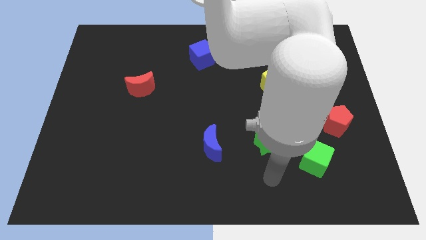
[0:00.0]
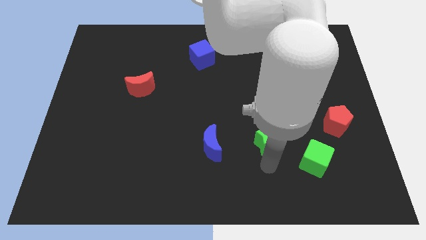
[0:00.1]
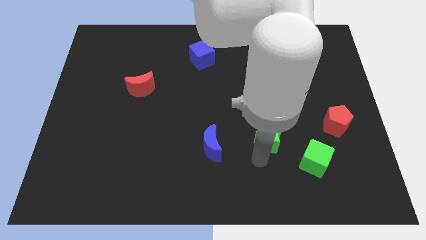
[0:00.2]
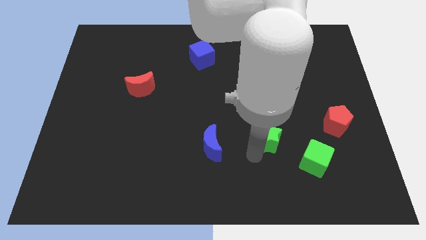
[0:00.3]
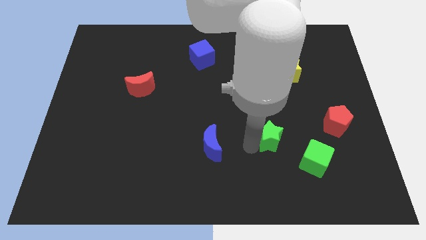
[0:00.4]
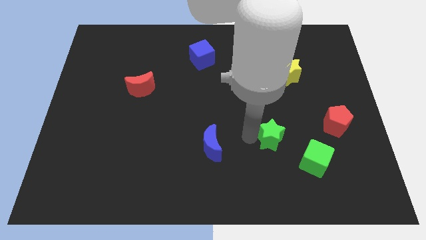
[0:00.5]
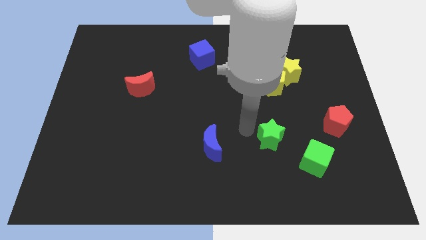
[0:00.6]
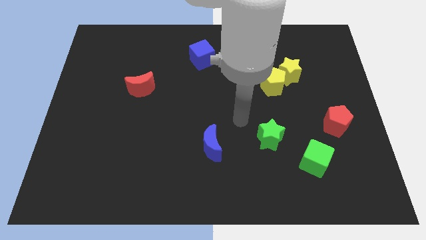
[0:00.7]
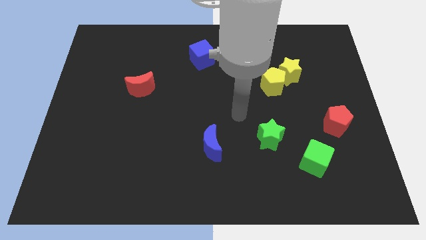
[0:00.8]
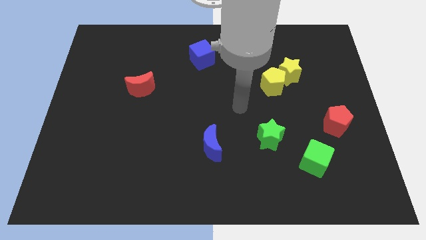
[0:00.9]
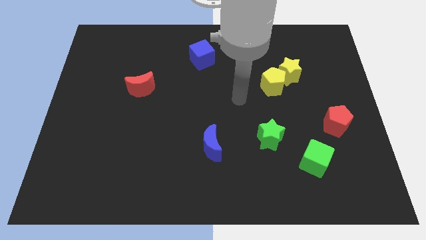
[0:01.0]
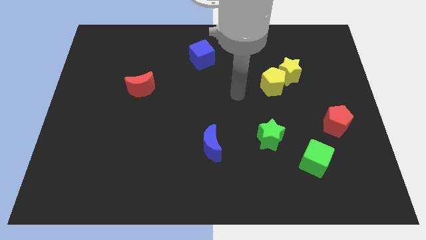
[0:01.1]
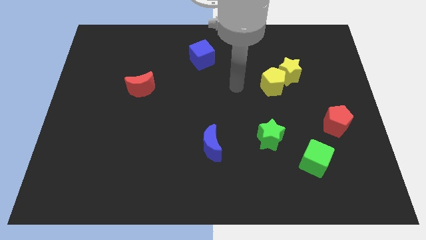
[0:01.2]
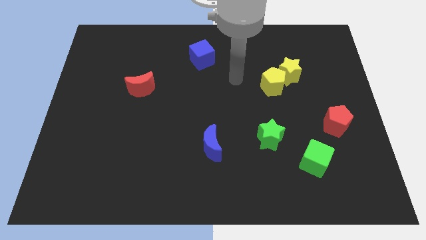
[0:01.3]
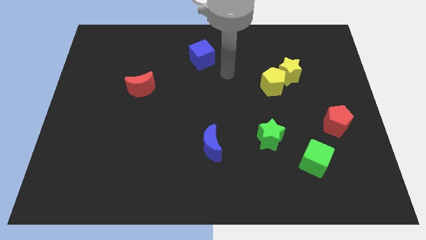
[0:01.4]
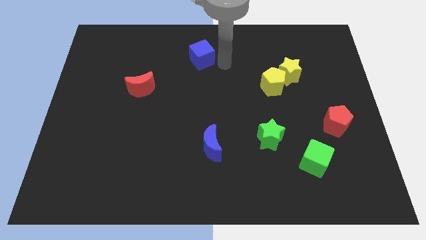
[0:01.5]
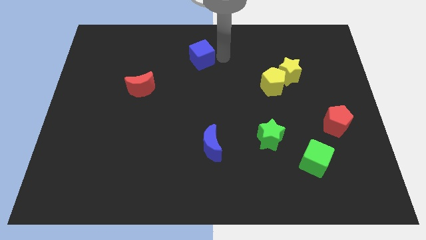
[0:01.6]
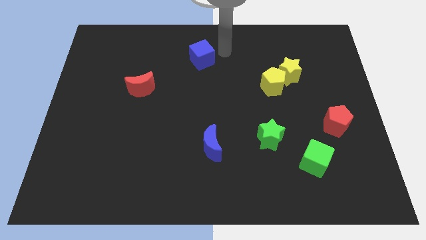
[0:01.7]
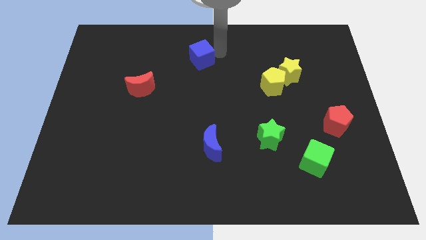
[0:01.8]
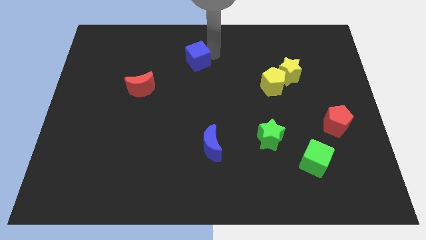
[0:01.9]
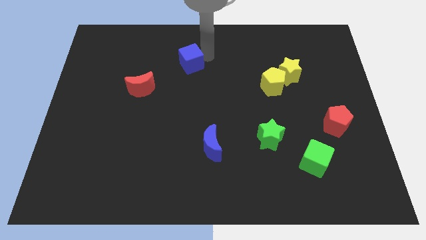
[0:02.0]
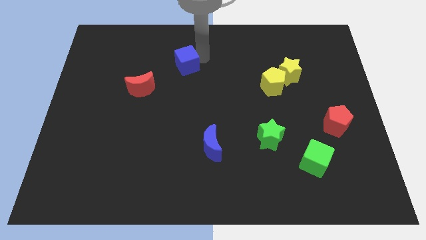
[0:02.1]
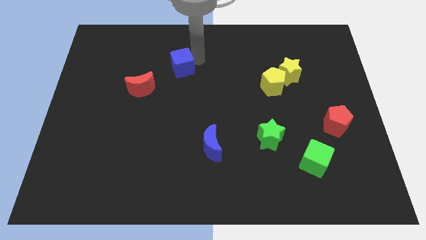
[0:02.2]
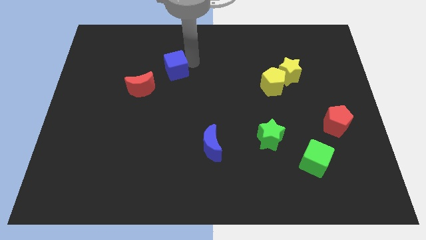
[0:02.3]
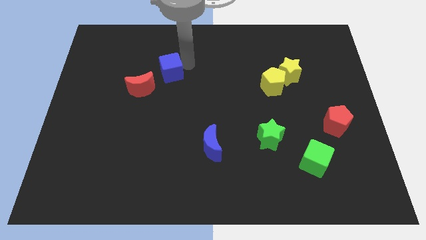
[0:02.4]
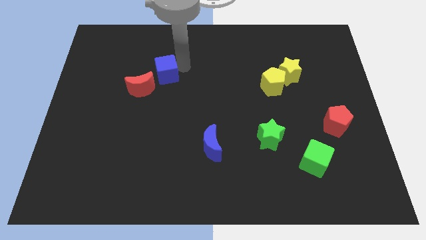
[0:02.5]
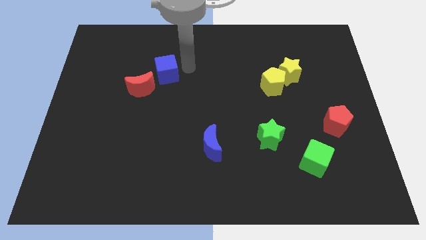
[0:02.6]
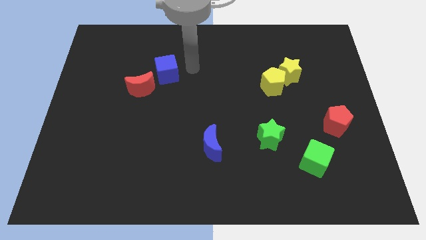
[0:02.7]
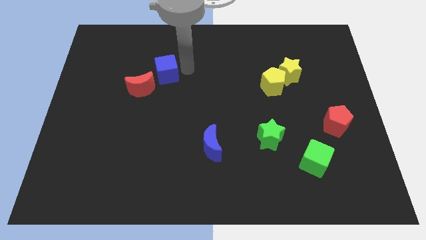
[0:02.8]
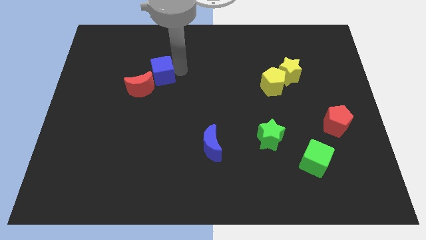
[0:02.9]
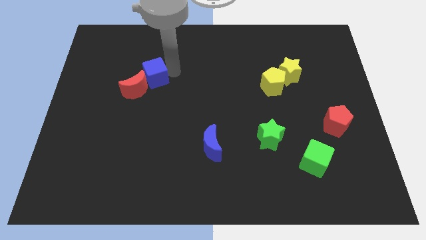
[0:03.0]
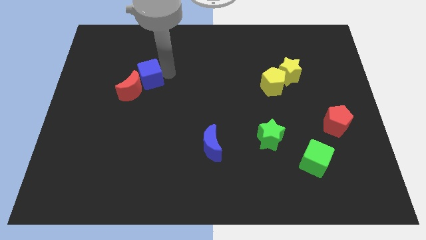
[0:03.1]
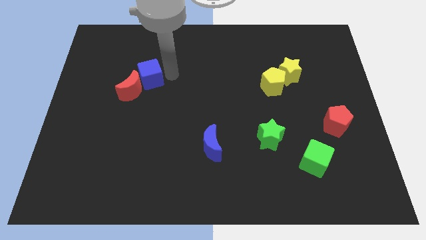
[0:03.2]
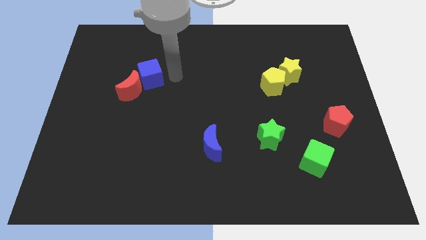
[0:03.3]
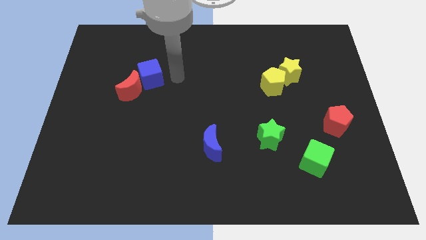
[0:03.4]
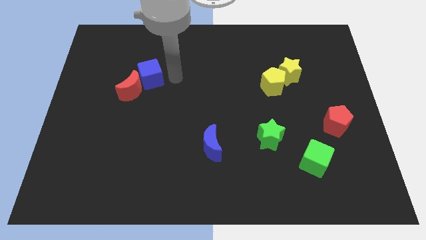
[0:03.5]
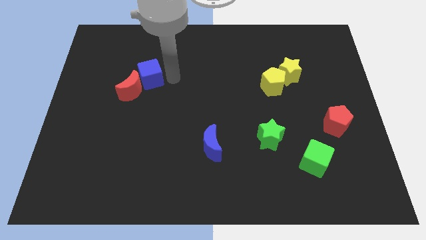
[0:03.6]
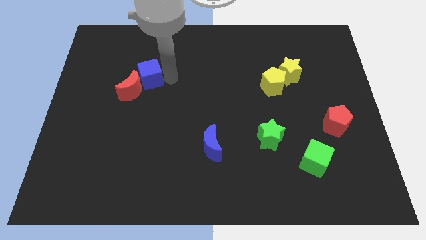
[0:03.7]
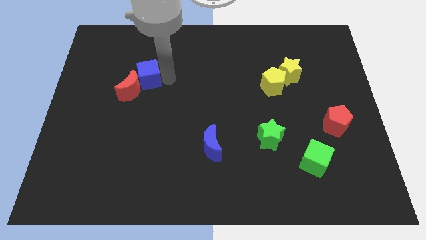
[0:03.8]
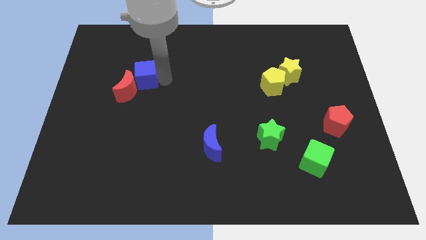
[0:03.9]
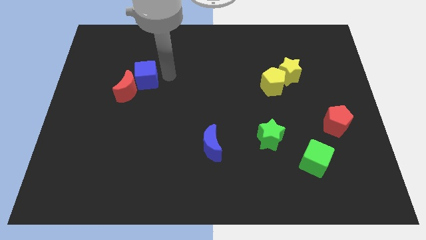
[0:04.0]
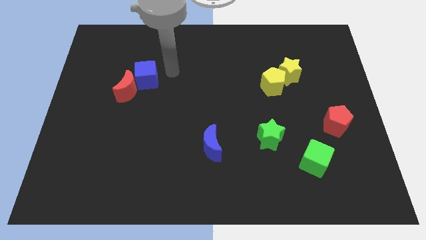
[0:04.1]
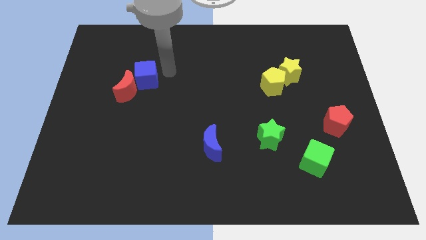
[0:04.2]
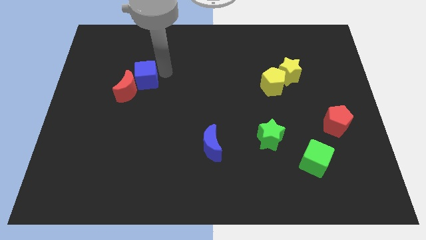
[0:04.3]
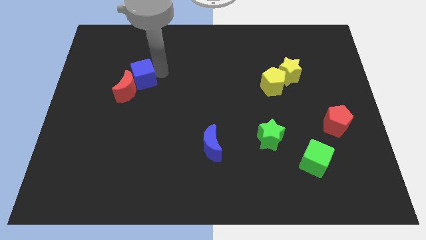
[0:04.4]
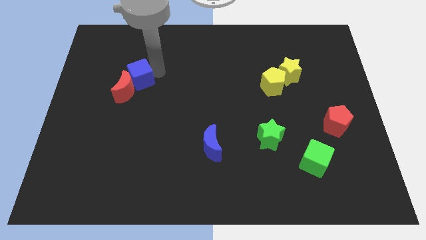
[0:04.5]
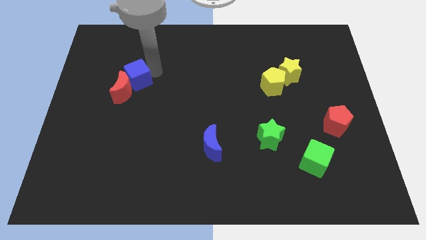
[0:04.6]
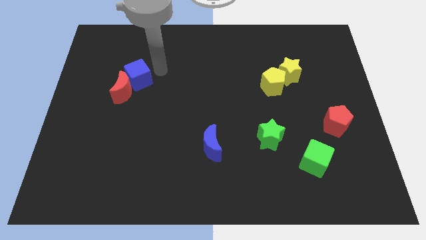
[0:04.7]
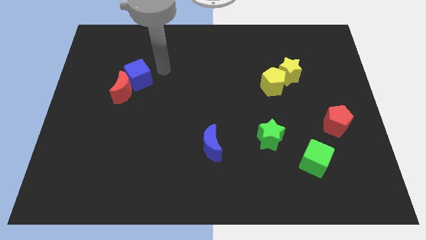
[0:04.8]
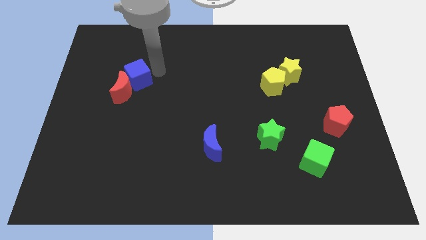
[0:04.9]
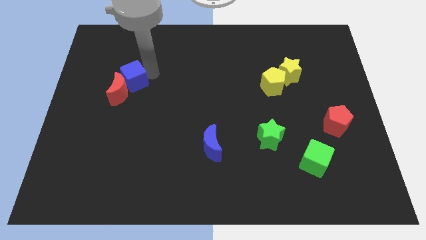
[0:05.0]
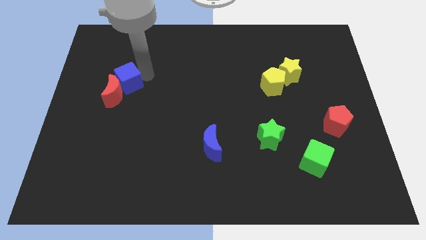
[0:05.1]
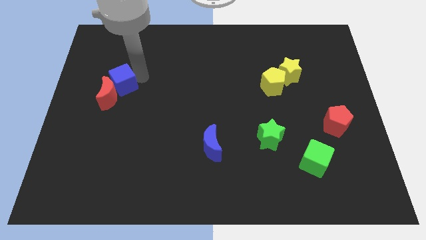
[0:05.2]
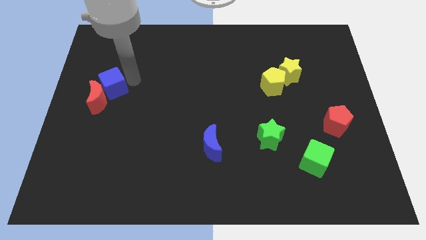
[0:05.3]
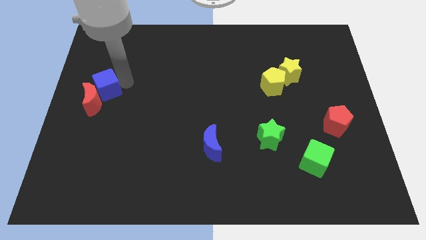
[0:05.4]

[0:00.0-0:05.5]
put the blue cube to the center left

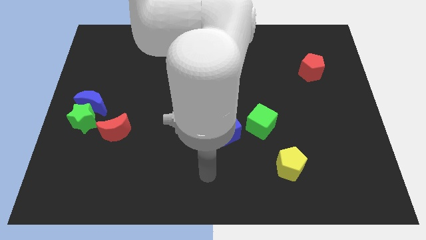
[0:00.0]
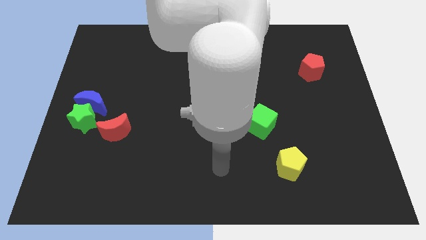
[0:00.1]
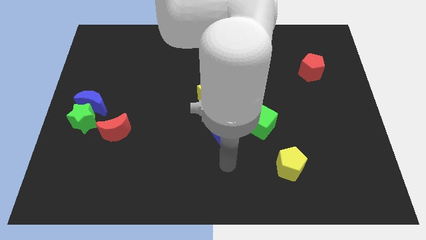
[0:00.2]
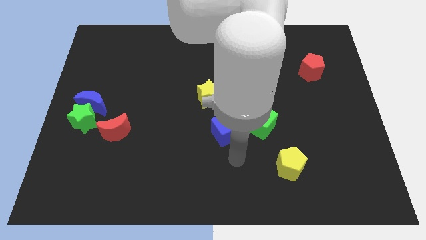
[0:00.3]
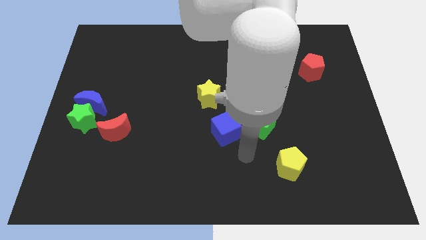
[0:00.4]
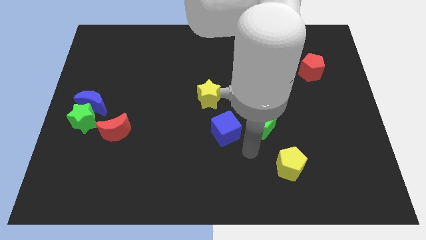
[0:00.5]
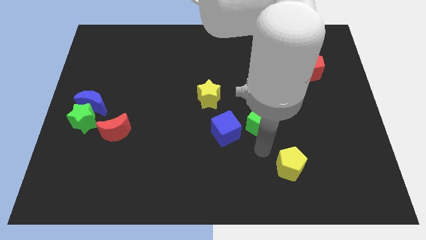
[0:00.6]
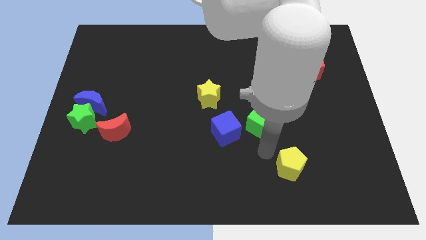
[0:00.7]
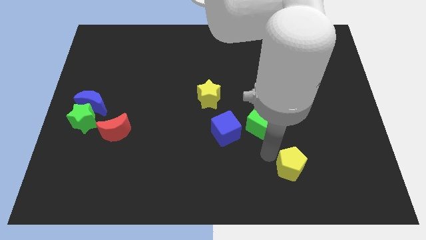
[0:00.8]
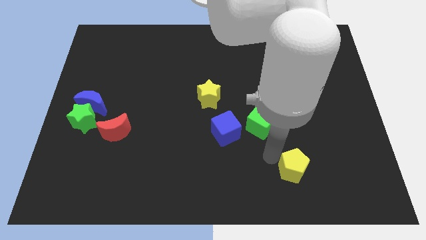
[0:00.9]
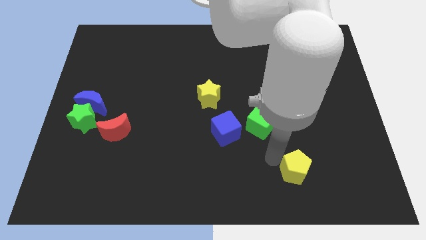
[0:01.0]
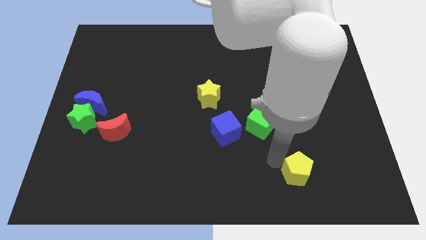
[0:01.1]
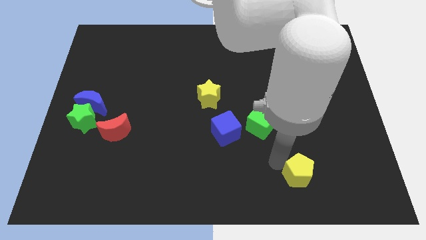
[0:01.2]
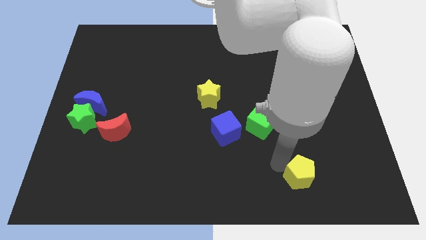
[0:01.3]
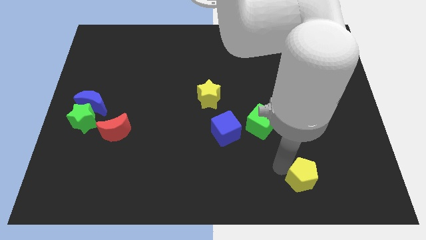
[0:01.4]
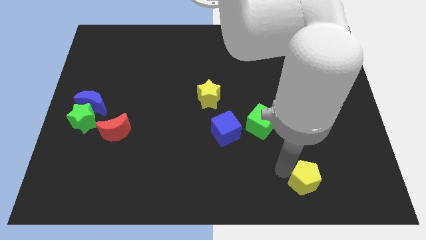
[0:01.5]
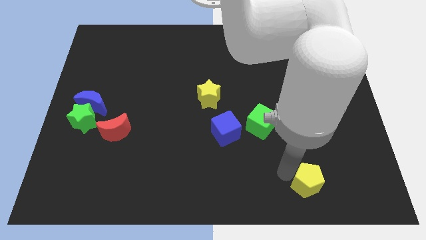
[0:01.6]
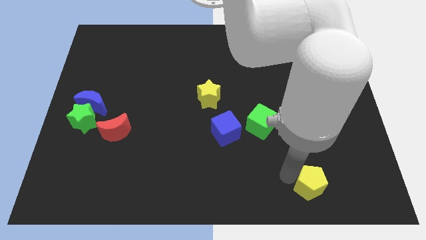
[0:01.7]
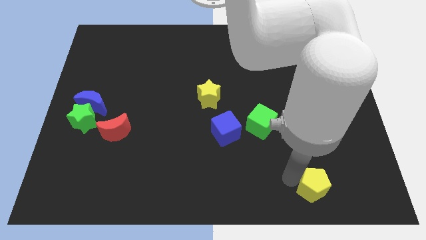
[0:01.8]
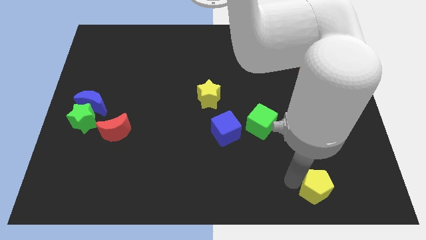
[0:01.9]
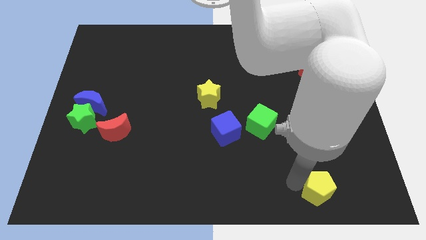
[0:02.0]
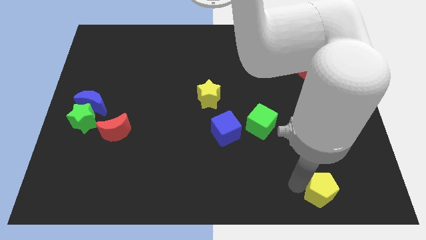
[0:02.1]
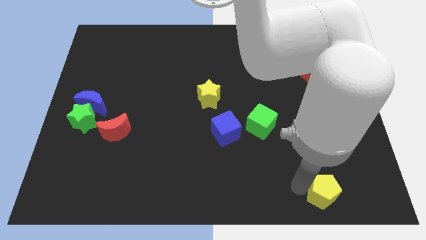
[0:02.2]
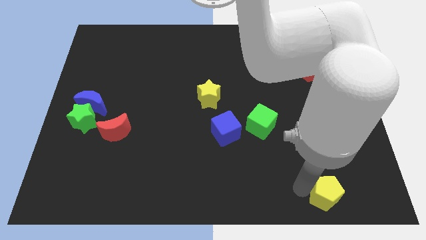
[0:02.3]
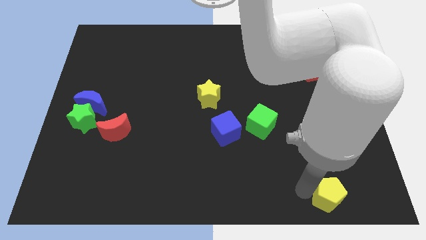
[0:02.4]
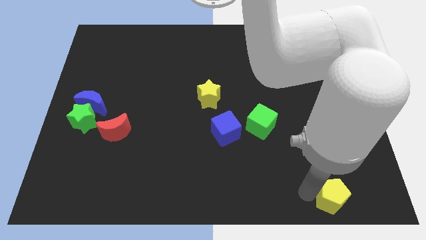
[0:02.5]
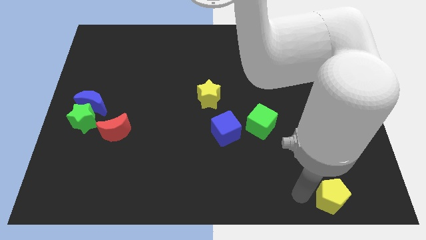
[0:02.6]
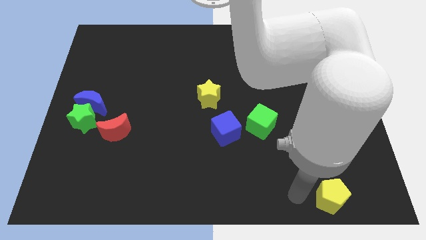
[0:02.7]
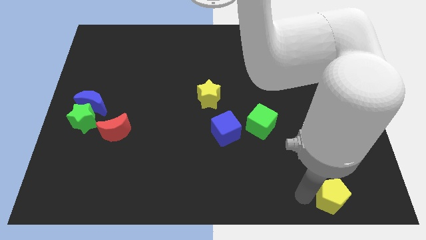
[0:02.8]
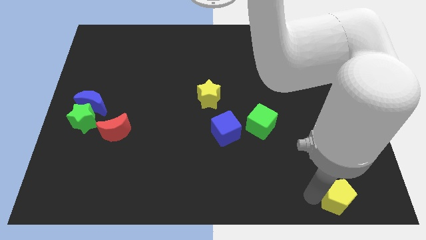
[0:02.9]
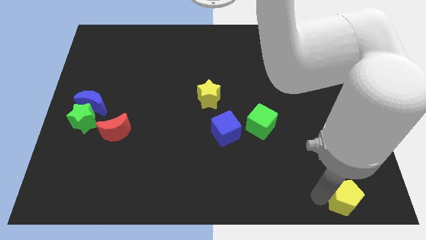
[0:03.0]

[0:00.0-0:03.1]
slide the yellow pentagon to the lower right corner
